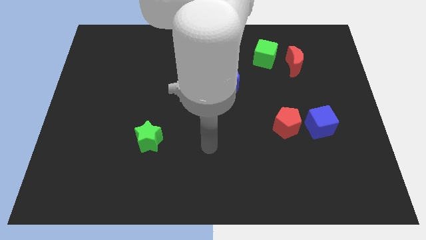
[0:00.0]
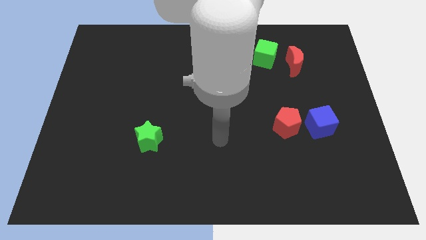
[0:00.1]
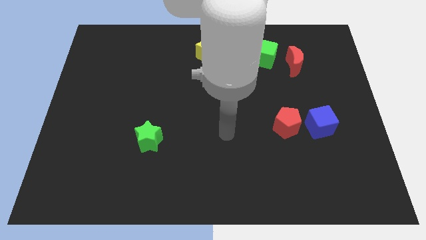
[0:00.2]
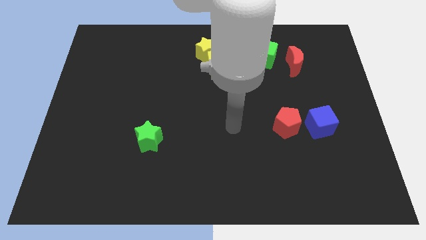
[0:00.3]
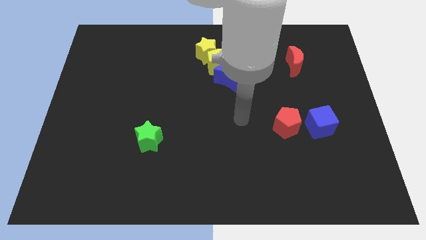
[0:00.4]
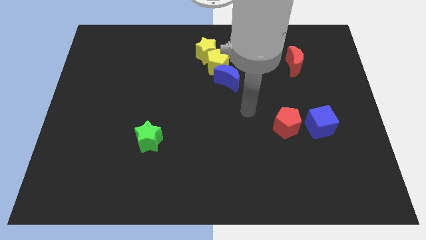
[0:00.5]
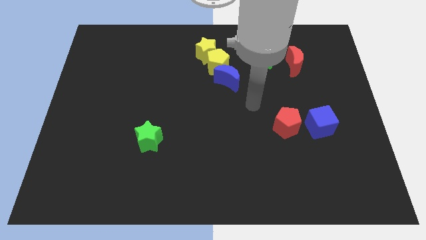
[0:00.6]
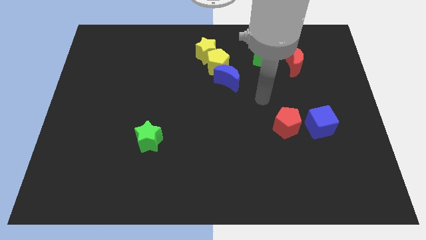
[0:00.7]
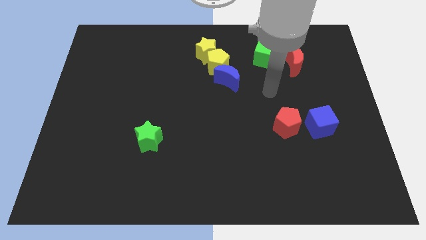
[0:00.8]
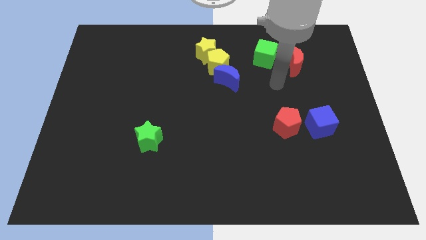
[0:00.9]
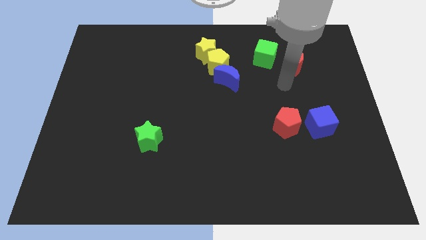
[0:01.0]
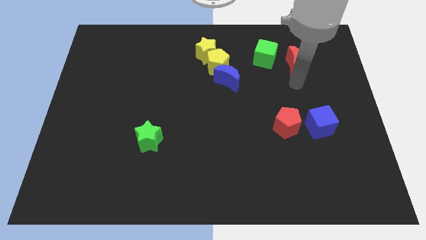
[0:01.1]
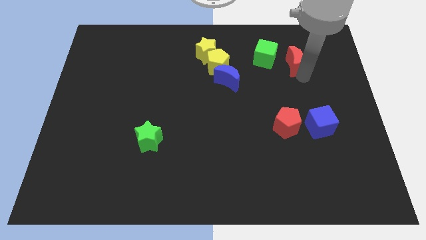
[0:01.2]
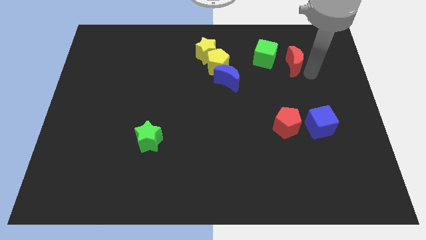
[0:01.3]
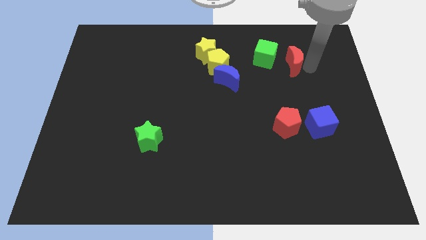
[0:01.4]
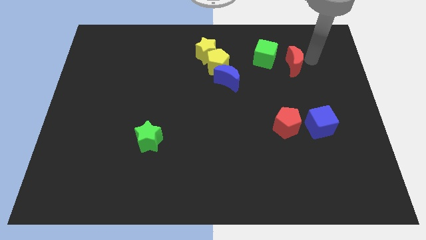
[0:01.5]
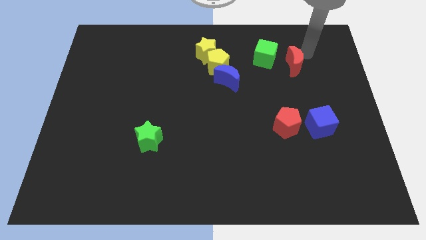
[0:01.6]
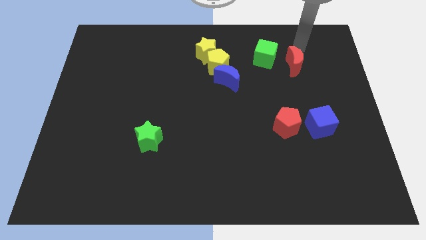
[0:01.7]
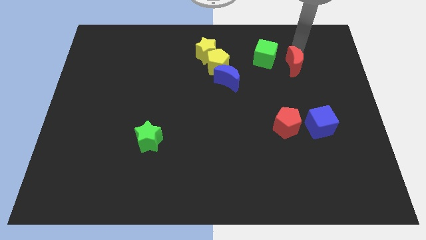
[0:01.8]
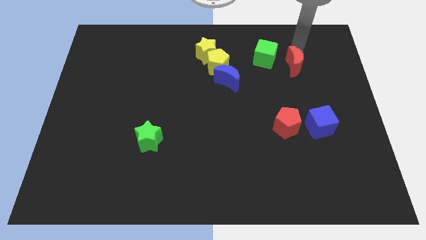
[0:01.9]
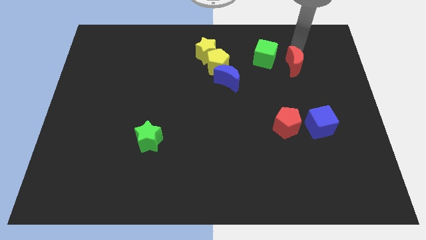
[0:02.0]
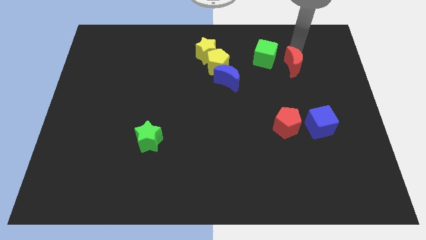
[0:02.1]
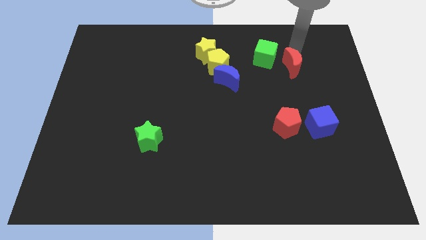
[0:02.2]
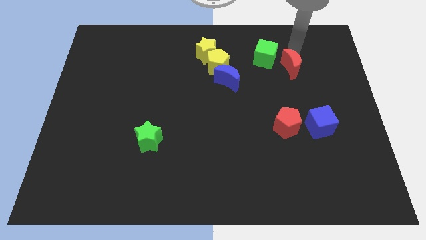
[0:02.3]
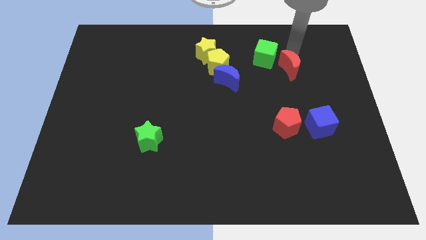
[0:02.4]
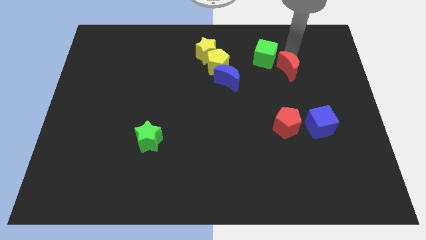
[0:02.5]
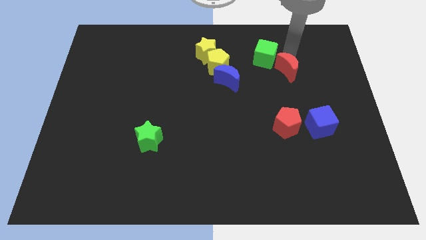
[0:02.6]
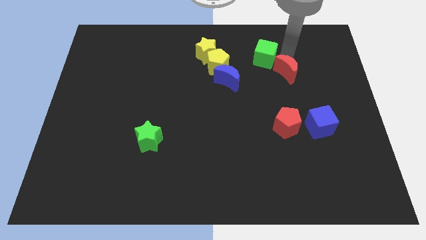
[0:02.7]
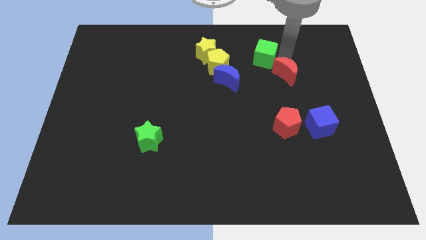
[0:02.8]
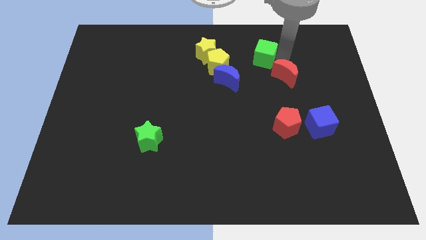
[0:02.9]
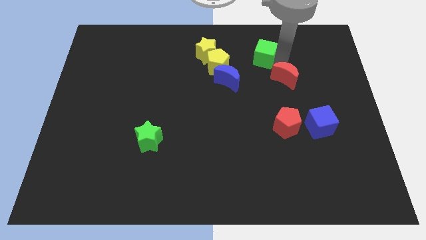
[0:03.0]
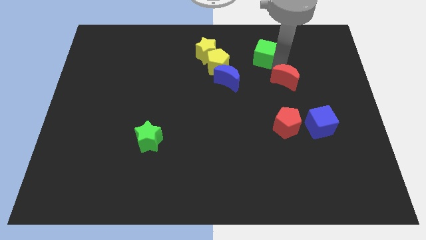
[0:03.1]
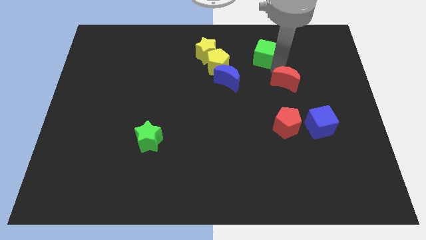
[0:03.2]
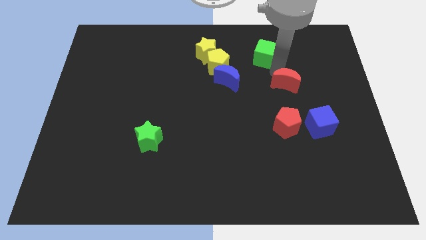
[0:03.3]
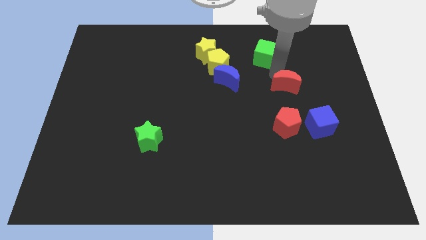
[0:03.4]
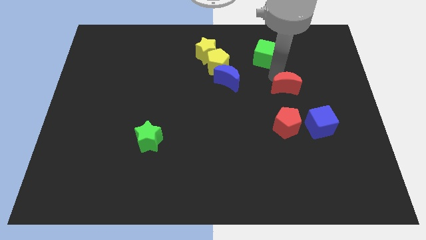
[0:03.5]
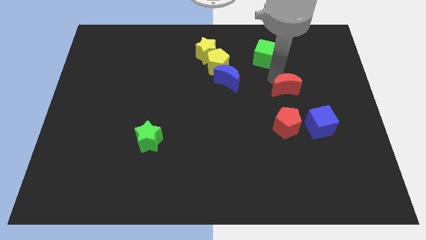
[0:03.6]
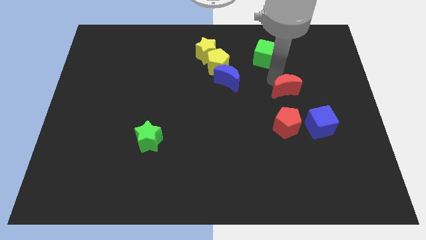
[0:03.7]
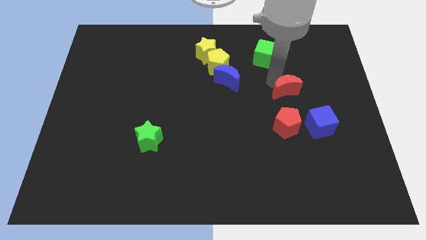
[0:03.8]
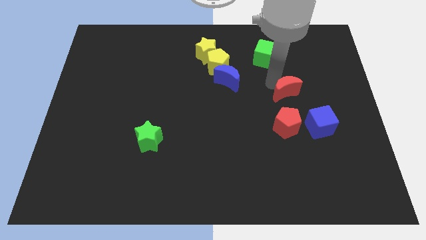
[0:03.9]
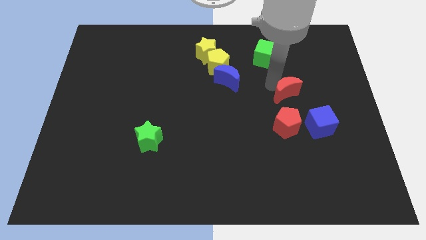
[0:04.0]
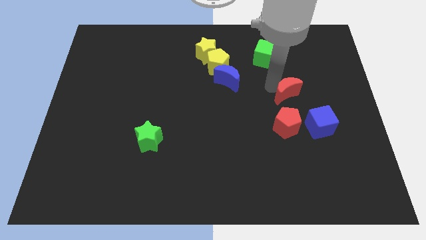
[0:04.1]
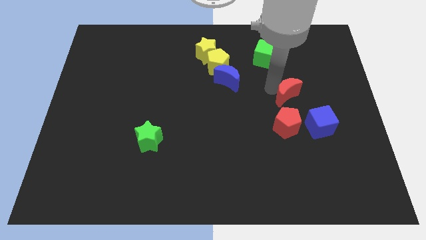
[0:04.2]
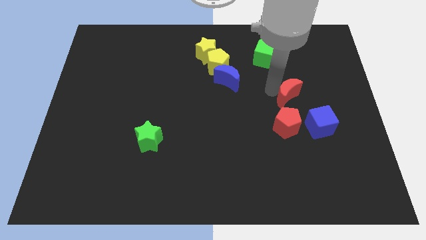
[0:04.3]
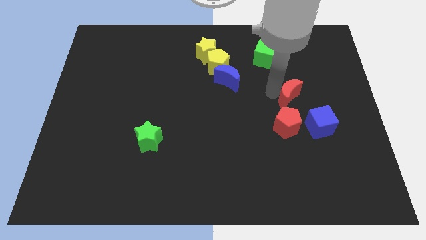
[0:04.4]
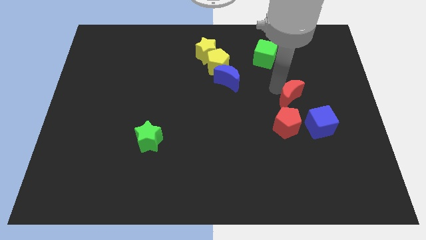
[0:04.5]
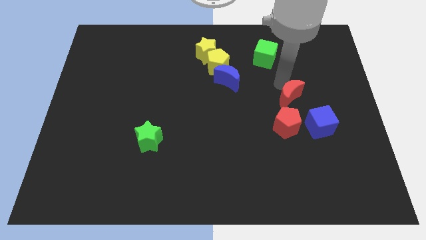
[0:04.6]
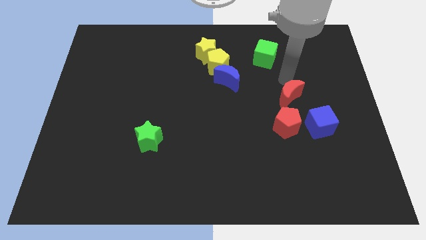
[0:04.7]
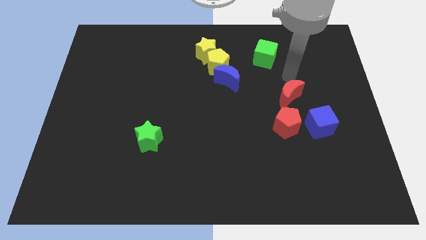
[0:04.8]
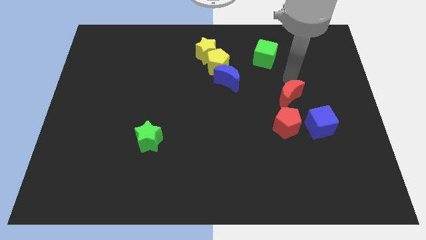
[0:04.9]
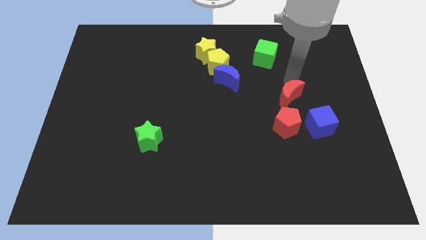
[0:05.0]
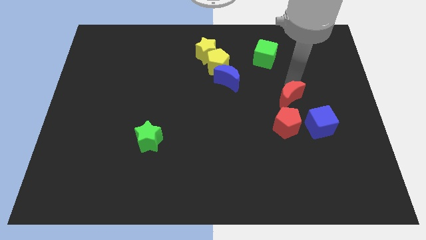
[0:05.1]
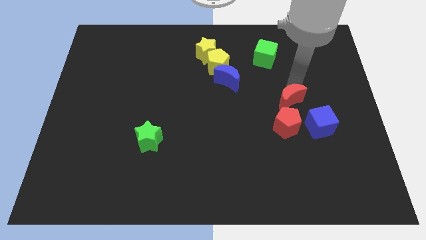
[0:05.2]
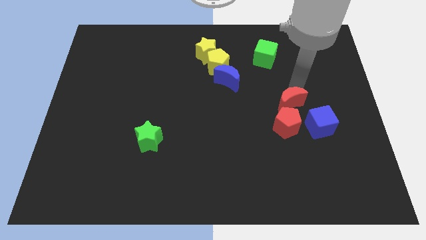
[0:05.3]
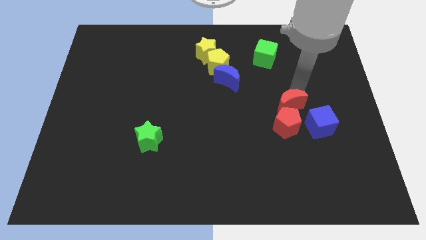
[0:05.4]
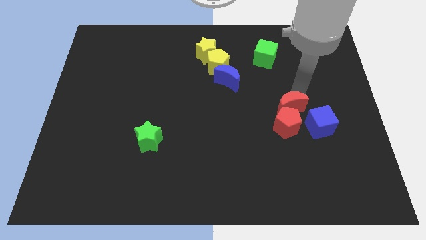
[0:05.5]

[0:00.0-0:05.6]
slide the red moon close to the red pentagon

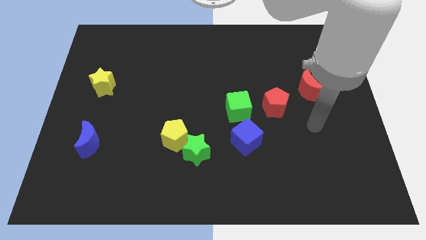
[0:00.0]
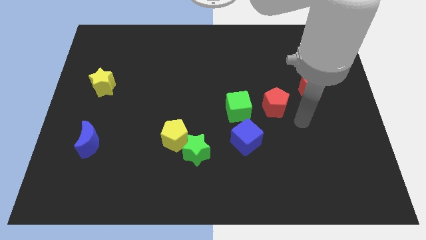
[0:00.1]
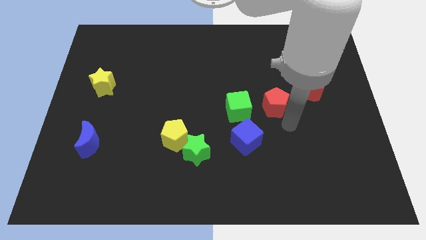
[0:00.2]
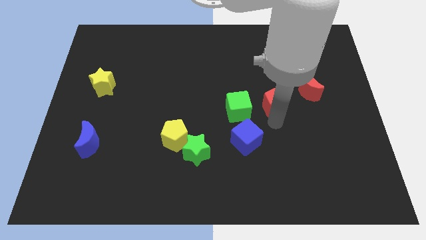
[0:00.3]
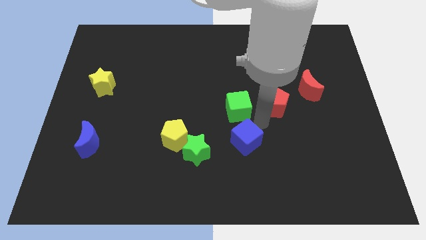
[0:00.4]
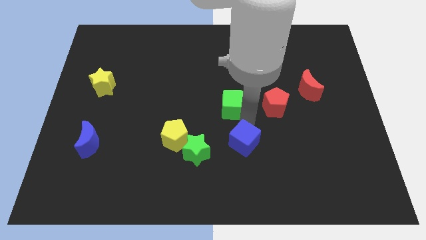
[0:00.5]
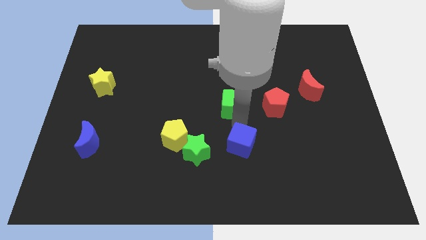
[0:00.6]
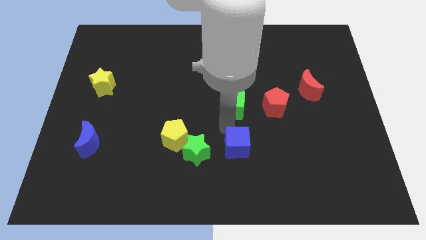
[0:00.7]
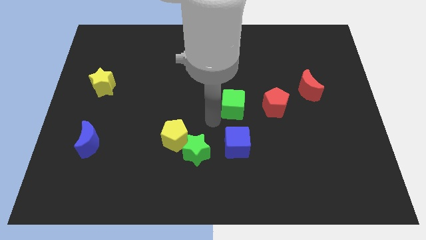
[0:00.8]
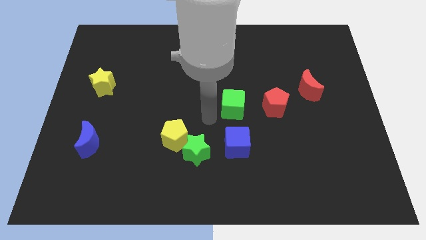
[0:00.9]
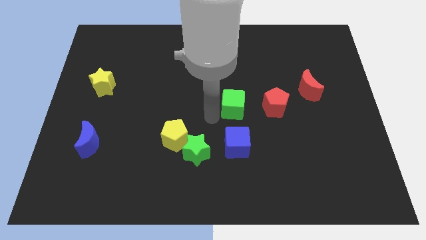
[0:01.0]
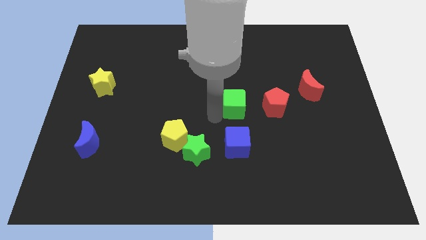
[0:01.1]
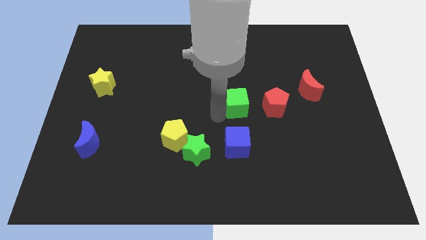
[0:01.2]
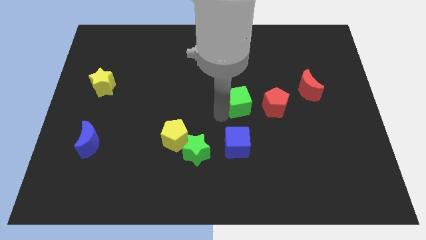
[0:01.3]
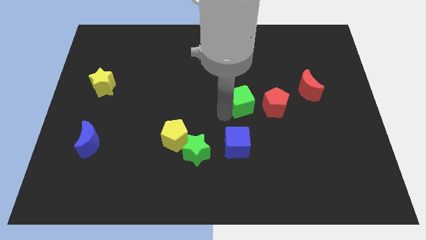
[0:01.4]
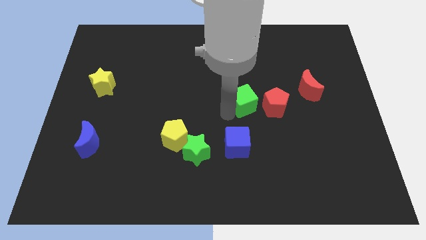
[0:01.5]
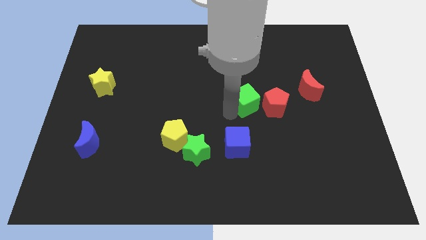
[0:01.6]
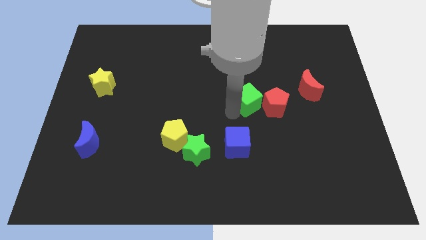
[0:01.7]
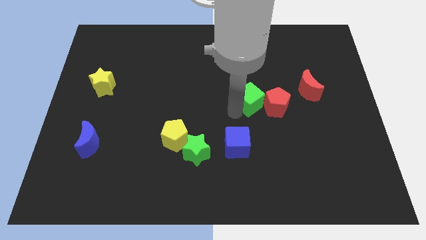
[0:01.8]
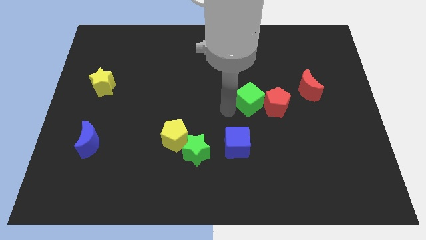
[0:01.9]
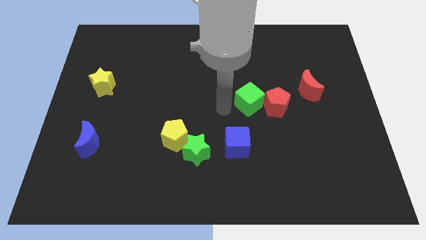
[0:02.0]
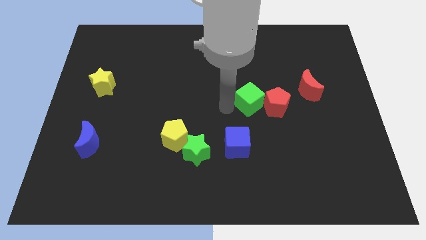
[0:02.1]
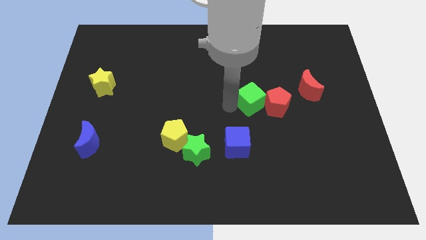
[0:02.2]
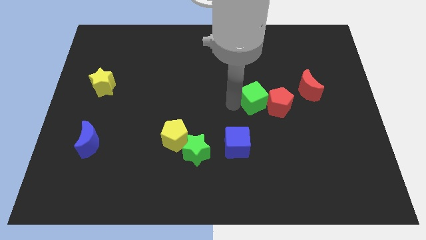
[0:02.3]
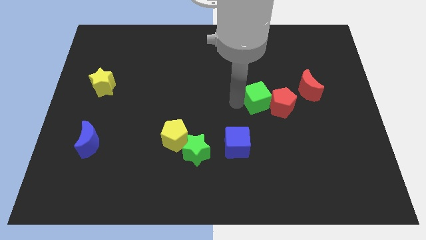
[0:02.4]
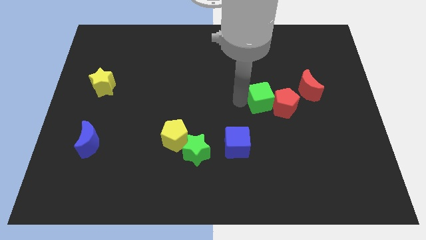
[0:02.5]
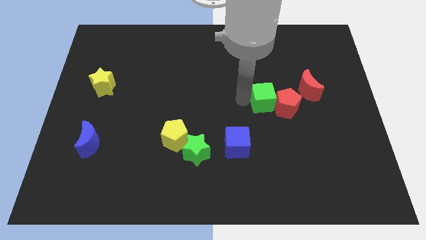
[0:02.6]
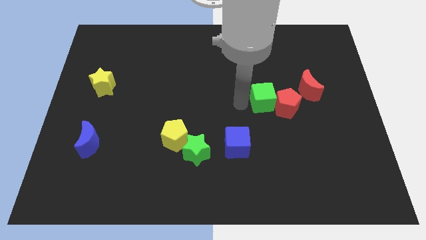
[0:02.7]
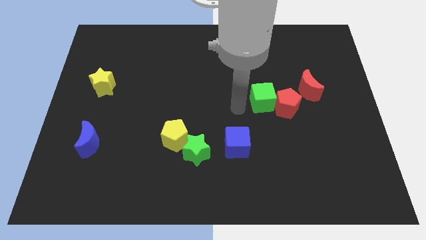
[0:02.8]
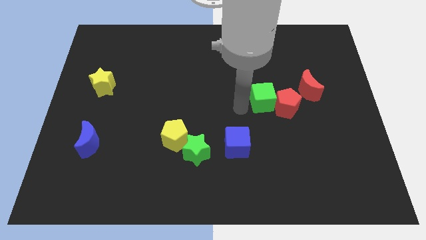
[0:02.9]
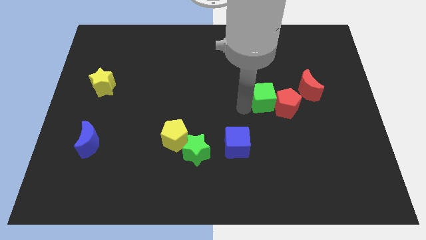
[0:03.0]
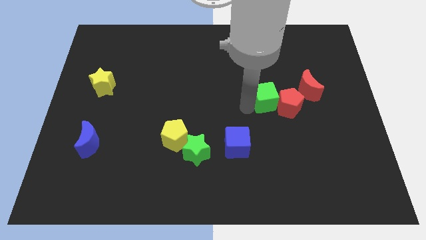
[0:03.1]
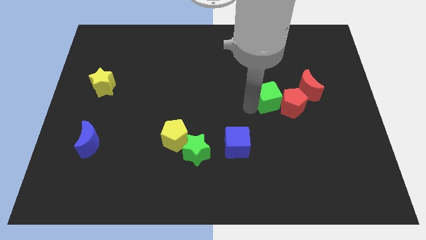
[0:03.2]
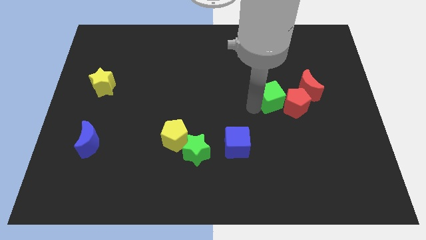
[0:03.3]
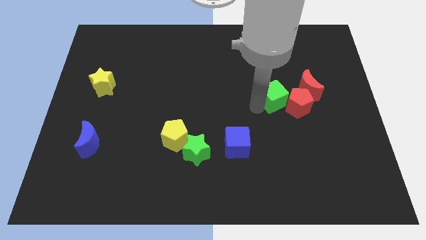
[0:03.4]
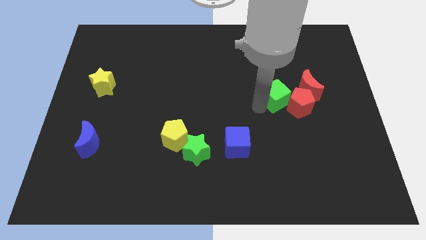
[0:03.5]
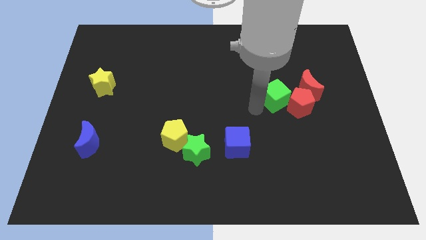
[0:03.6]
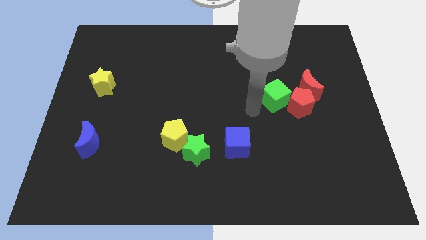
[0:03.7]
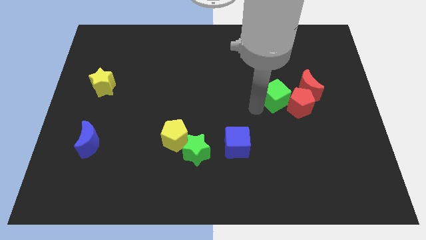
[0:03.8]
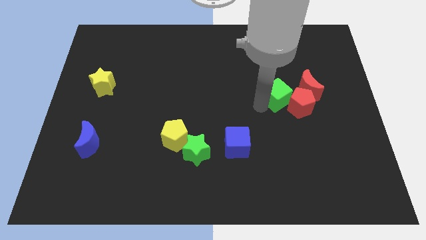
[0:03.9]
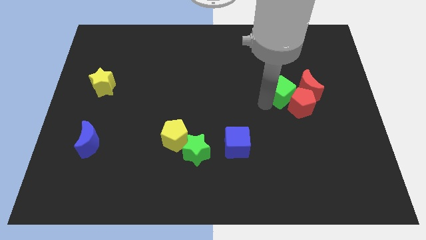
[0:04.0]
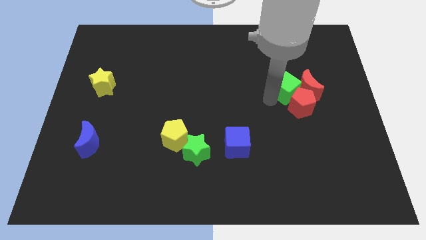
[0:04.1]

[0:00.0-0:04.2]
put the green cube close to the red moon
